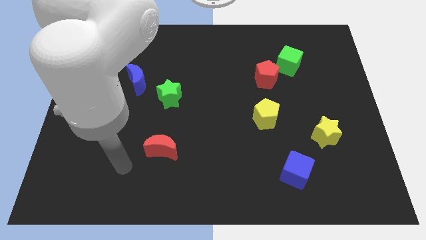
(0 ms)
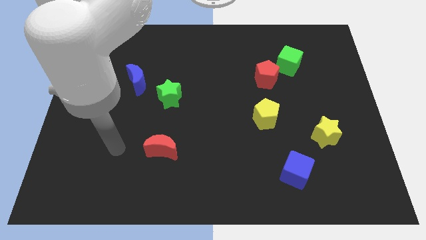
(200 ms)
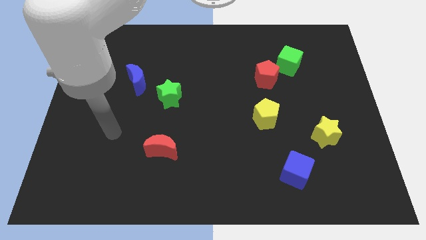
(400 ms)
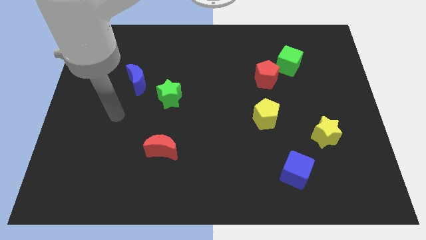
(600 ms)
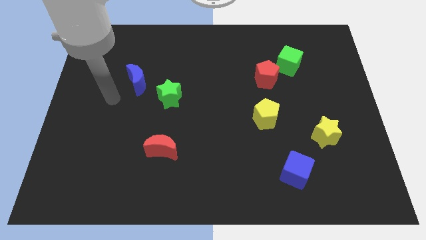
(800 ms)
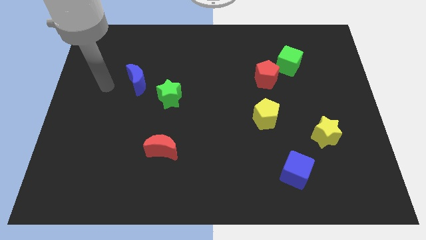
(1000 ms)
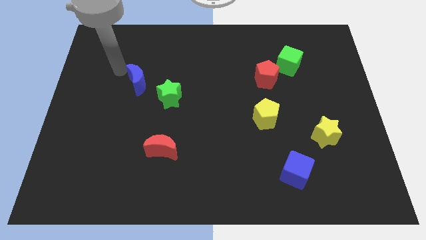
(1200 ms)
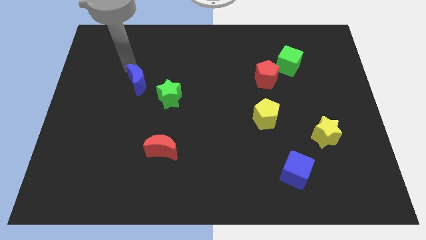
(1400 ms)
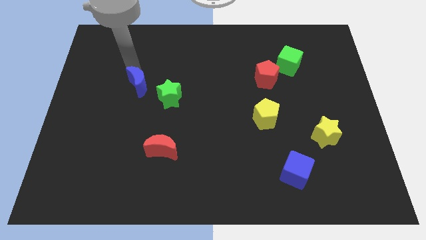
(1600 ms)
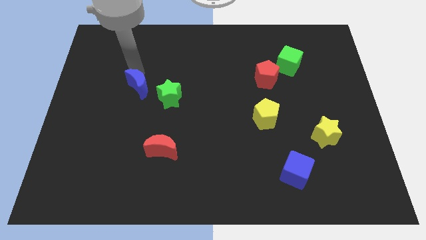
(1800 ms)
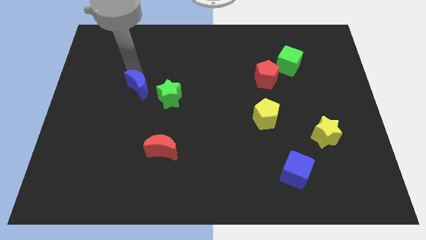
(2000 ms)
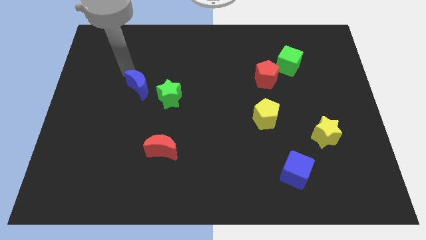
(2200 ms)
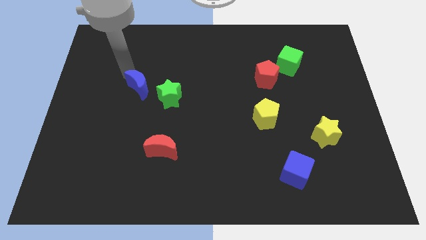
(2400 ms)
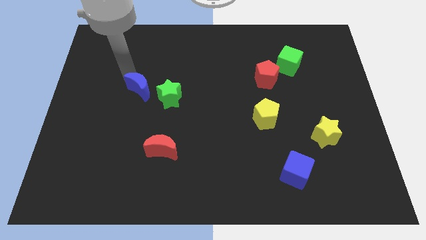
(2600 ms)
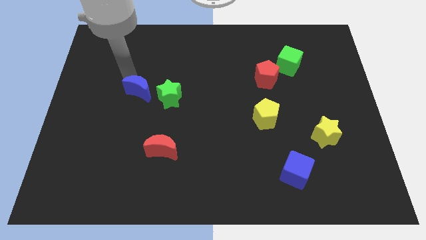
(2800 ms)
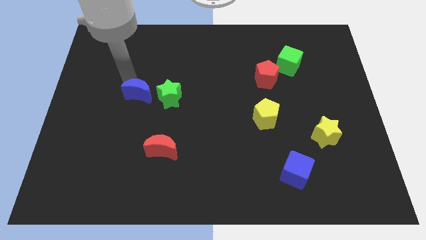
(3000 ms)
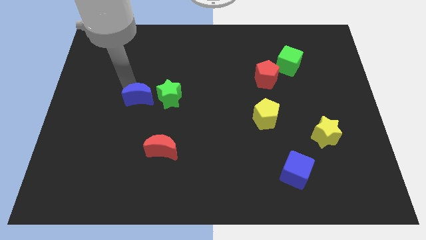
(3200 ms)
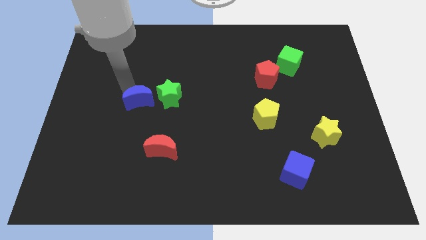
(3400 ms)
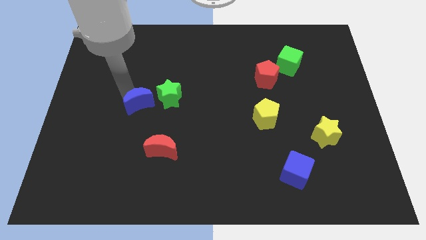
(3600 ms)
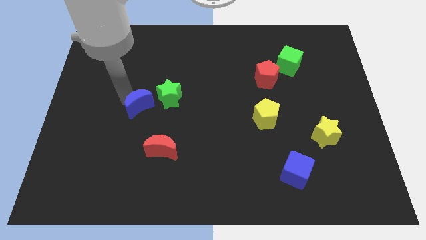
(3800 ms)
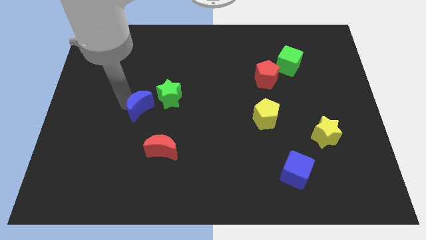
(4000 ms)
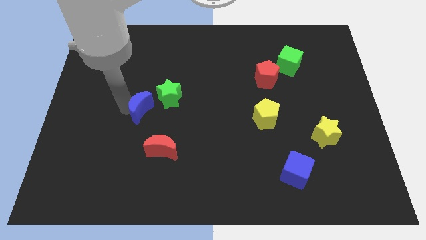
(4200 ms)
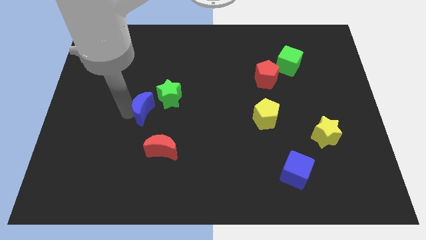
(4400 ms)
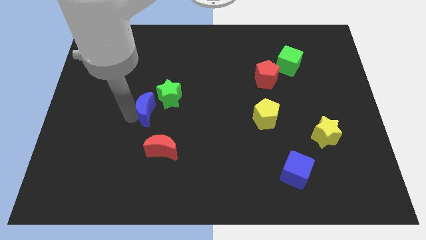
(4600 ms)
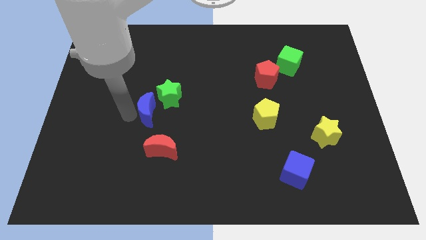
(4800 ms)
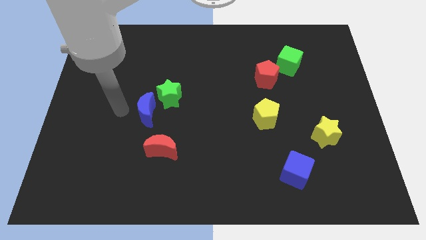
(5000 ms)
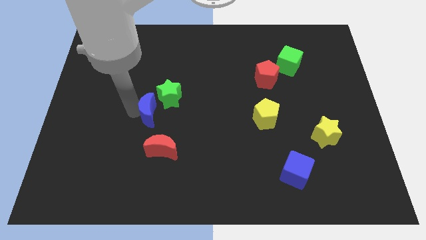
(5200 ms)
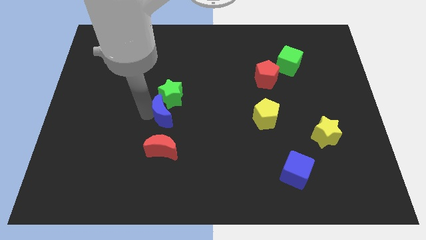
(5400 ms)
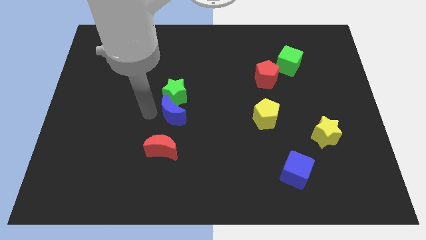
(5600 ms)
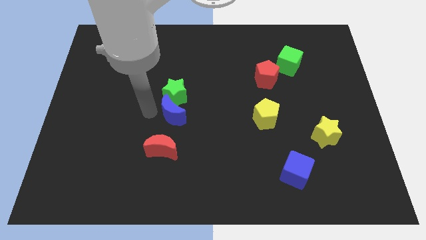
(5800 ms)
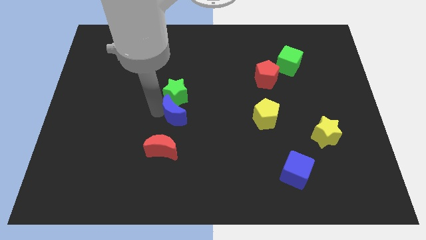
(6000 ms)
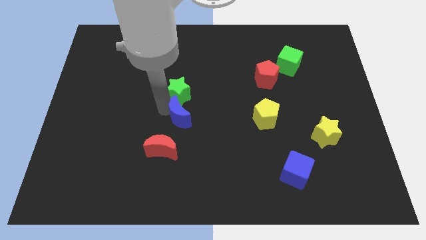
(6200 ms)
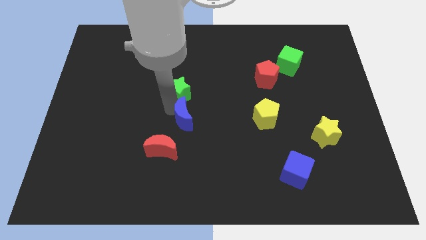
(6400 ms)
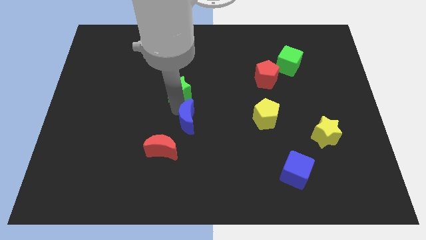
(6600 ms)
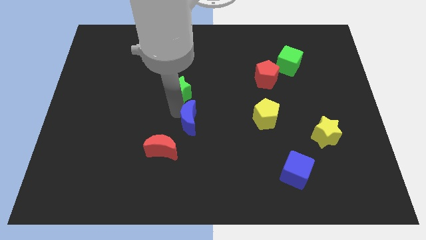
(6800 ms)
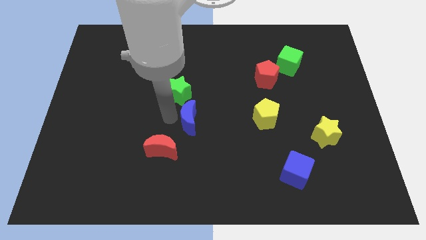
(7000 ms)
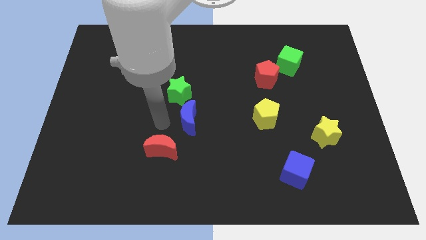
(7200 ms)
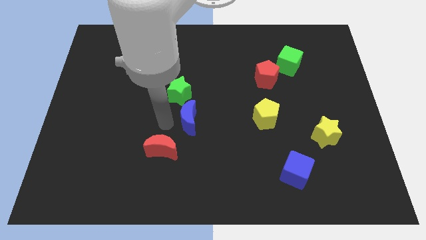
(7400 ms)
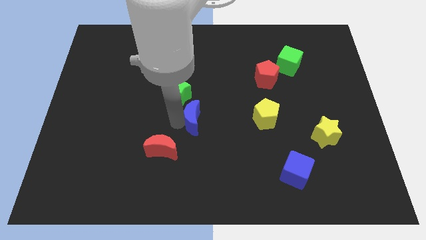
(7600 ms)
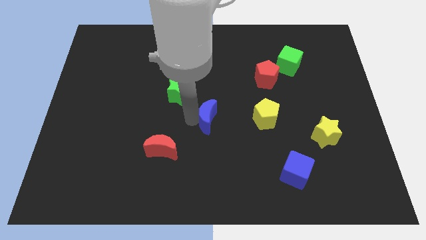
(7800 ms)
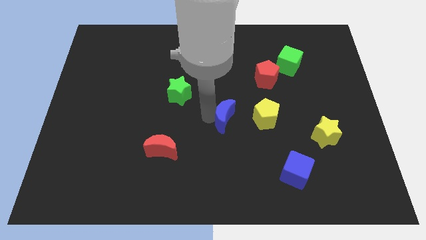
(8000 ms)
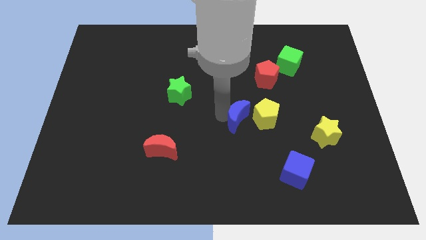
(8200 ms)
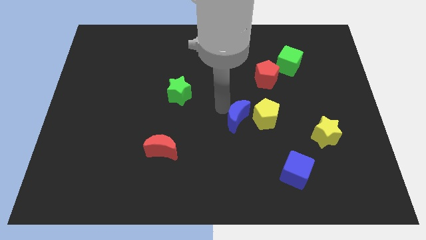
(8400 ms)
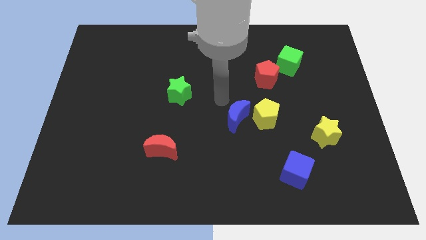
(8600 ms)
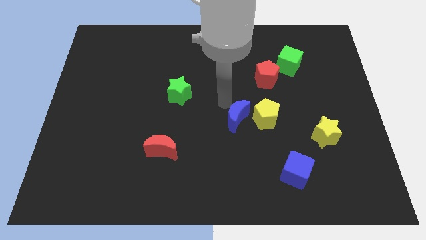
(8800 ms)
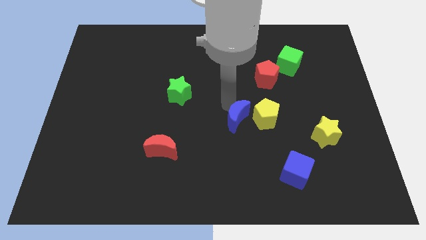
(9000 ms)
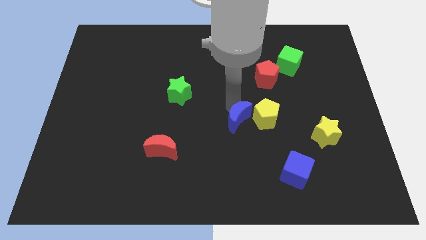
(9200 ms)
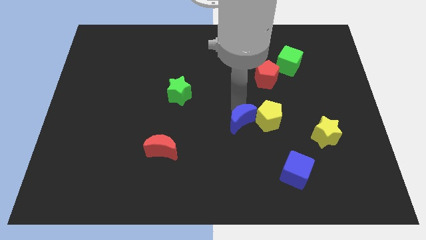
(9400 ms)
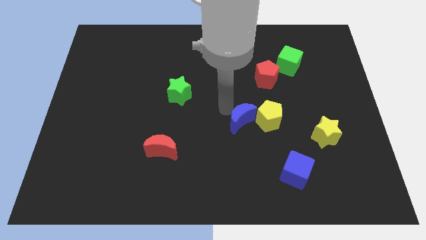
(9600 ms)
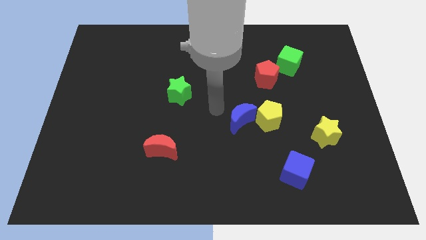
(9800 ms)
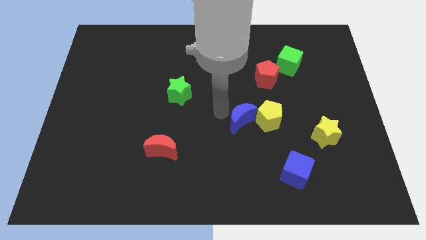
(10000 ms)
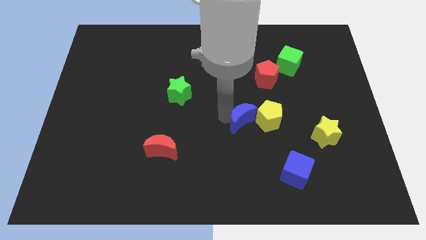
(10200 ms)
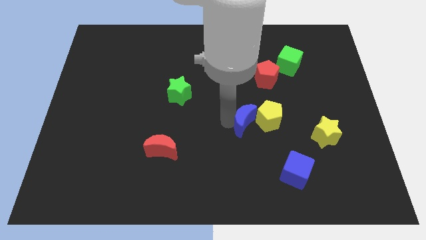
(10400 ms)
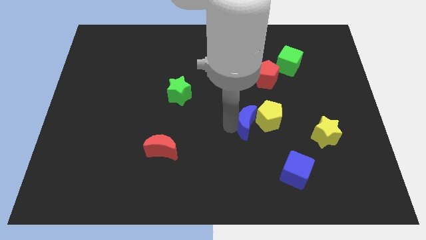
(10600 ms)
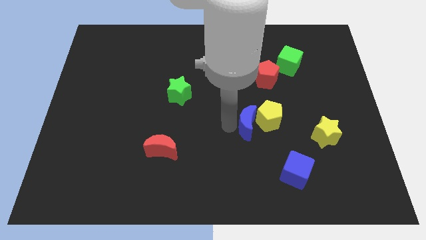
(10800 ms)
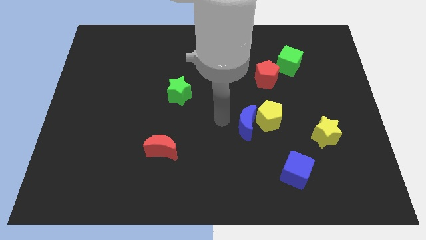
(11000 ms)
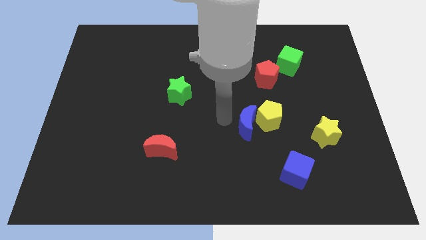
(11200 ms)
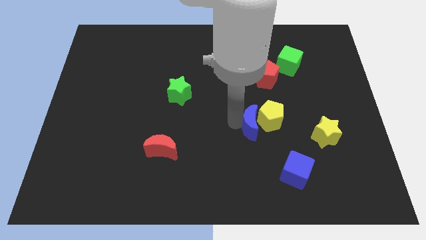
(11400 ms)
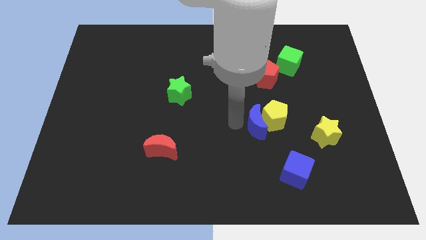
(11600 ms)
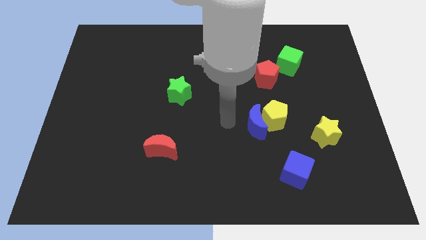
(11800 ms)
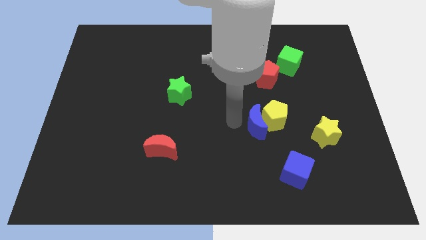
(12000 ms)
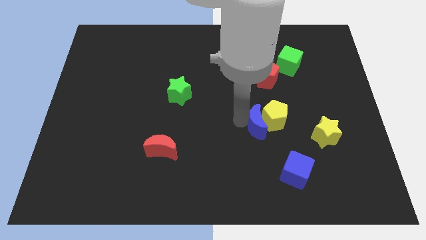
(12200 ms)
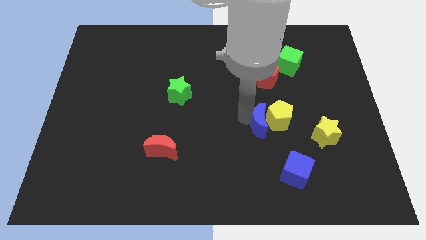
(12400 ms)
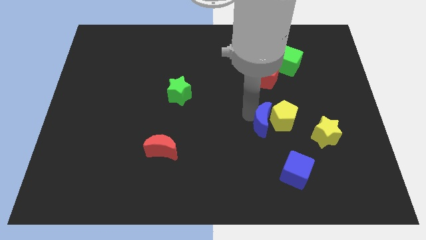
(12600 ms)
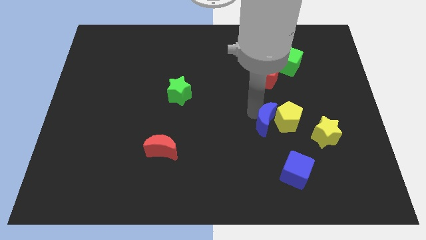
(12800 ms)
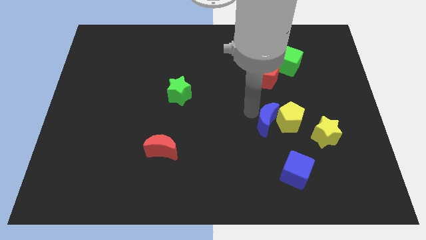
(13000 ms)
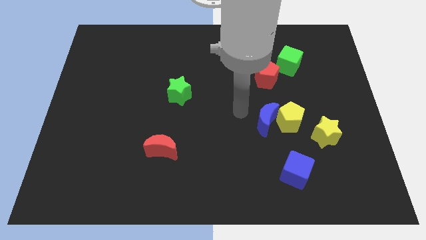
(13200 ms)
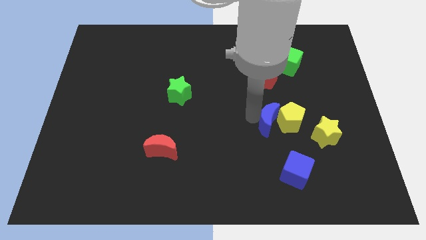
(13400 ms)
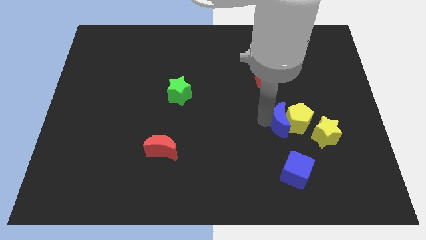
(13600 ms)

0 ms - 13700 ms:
put the blue moon diagonally up and to the left of the yellow star
